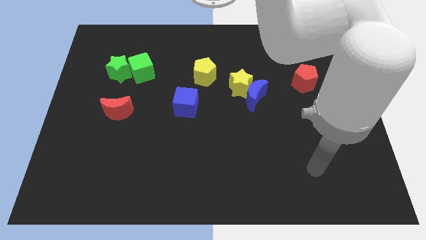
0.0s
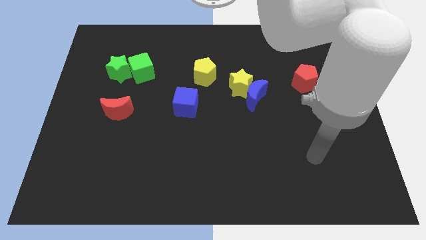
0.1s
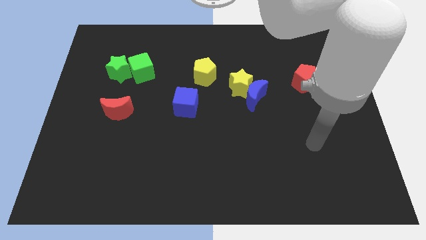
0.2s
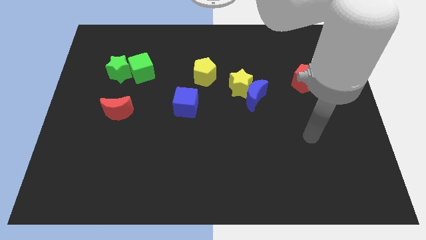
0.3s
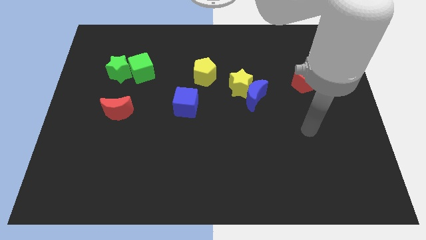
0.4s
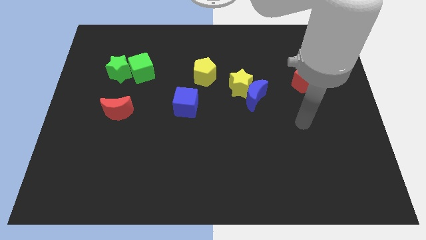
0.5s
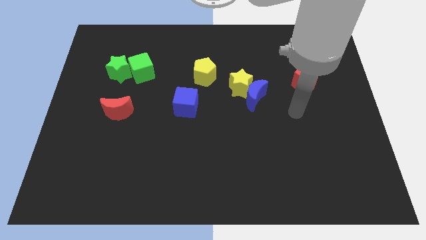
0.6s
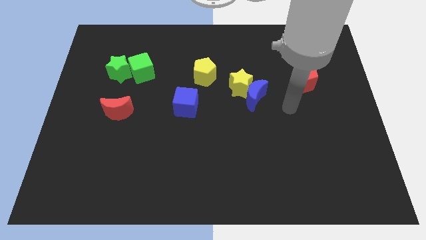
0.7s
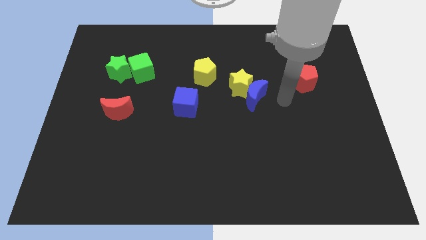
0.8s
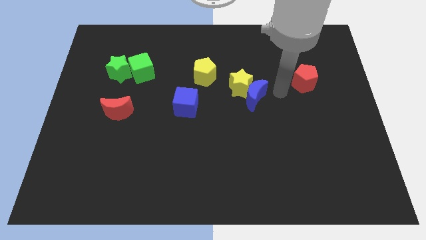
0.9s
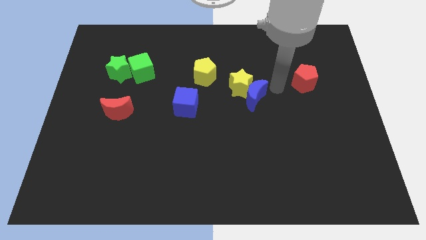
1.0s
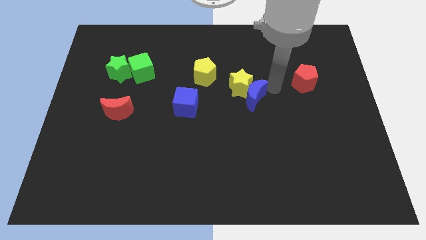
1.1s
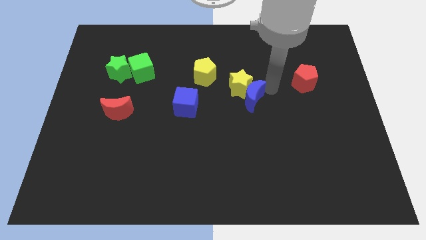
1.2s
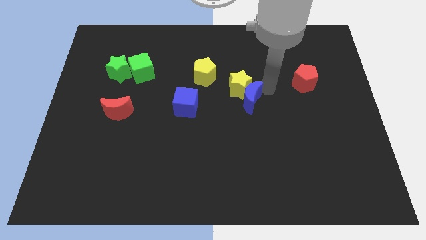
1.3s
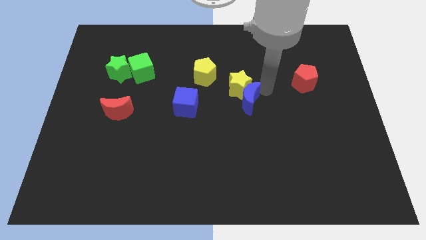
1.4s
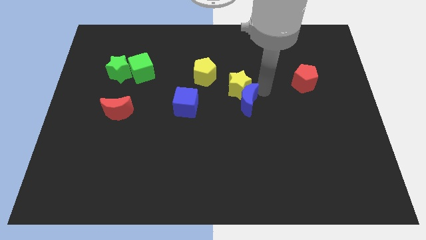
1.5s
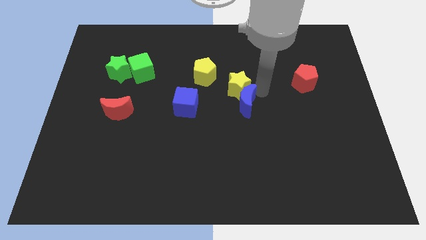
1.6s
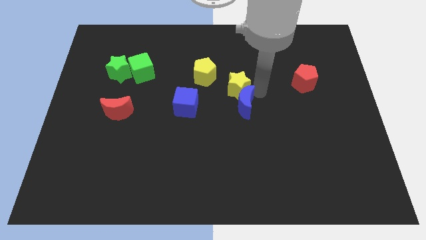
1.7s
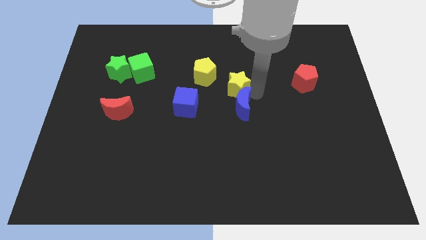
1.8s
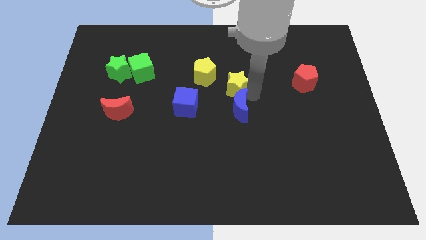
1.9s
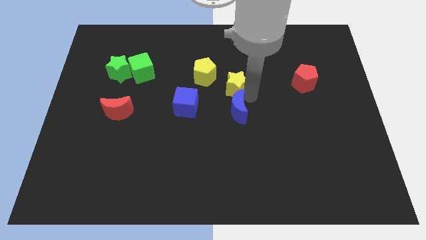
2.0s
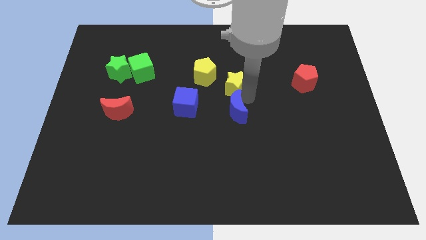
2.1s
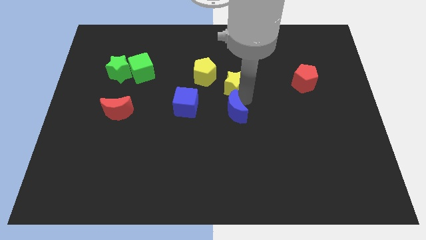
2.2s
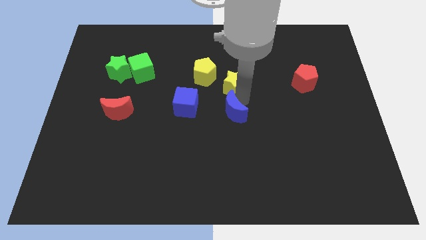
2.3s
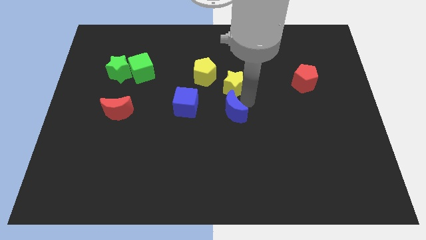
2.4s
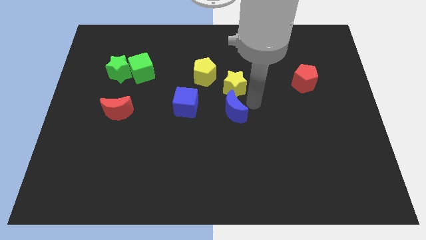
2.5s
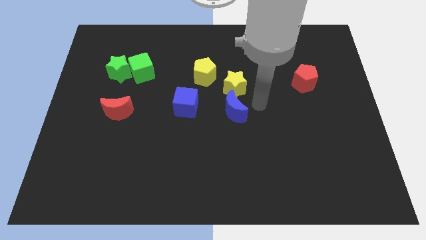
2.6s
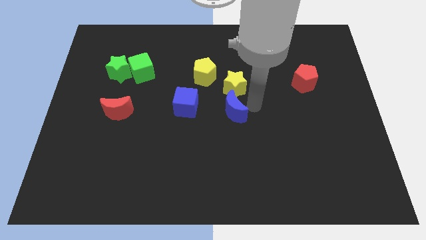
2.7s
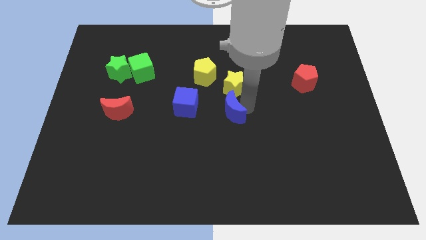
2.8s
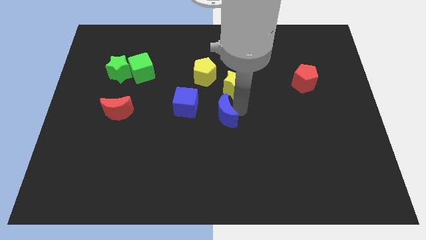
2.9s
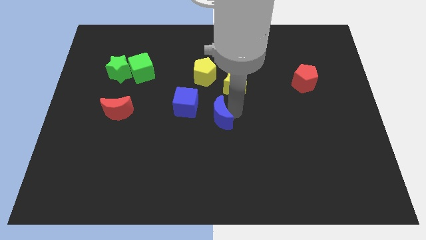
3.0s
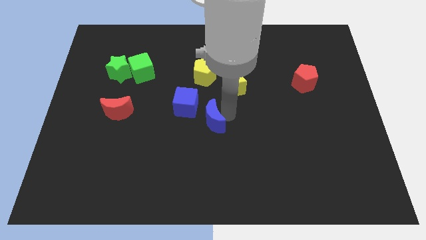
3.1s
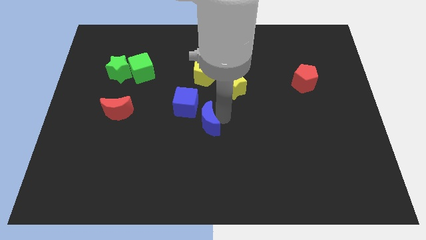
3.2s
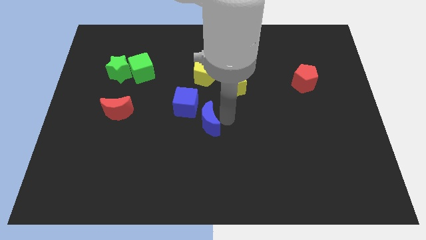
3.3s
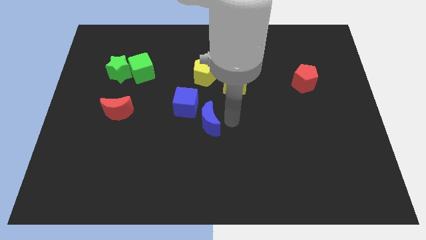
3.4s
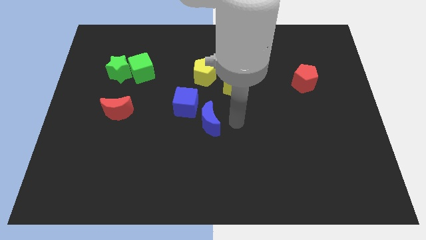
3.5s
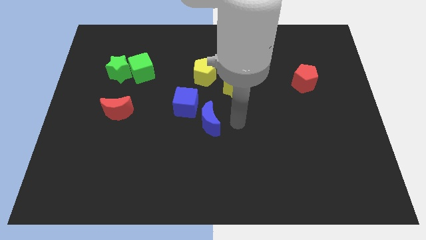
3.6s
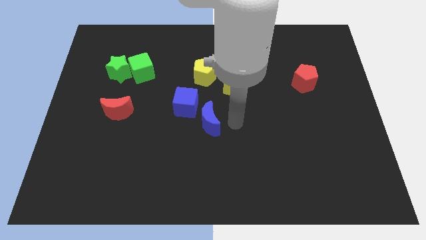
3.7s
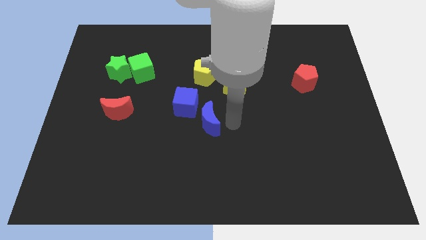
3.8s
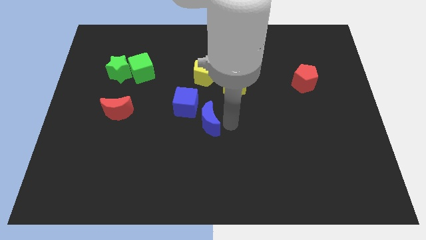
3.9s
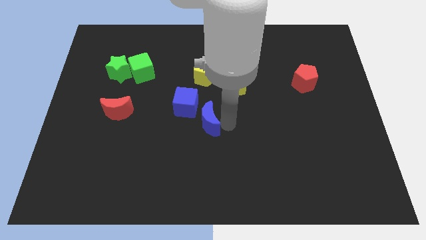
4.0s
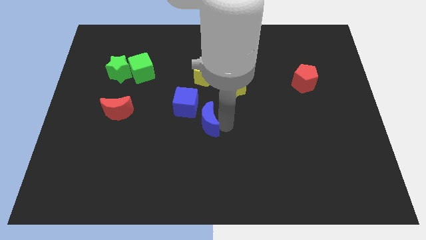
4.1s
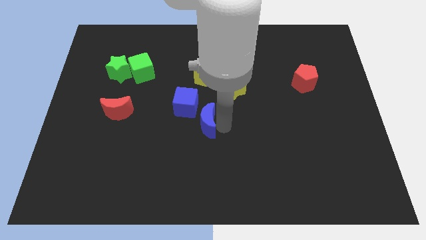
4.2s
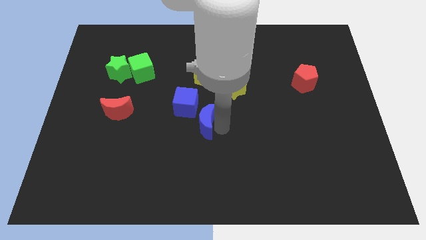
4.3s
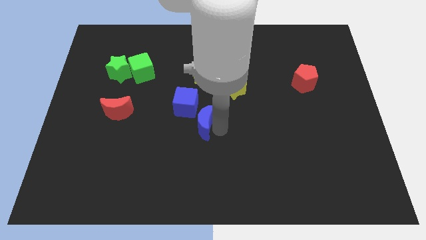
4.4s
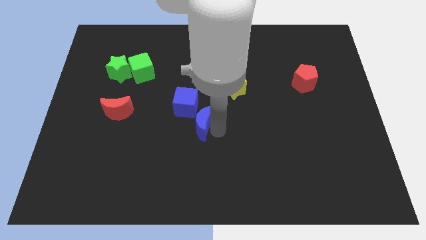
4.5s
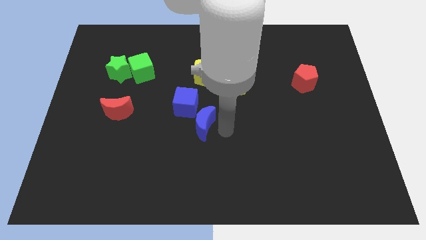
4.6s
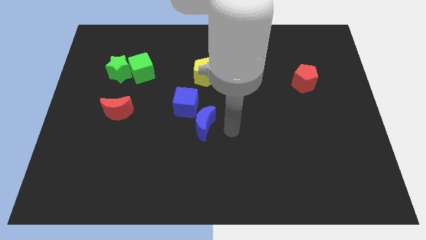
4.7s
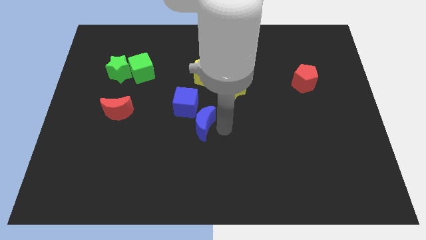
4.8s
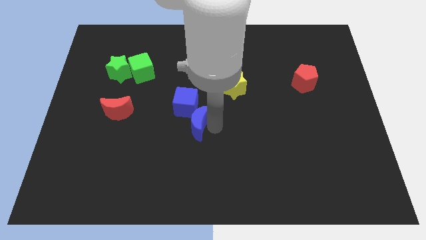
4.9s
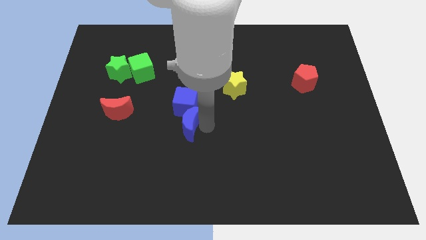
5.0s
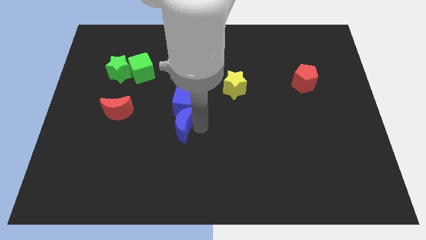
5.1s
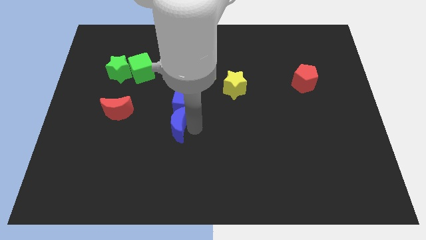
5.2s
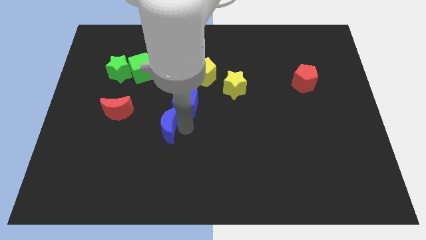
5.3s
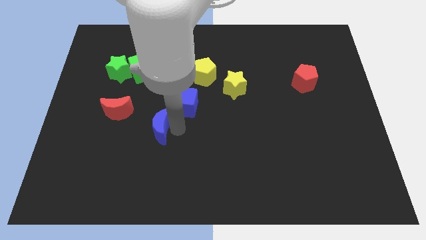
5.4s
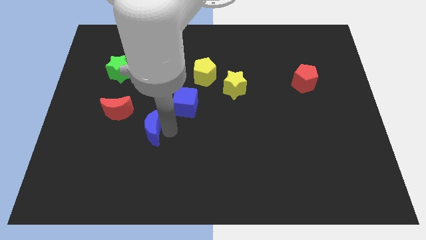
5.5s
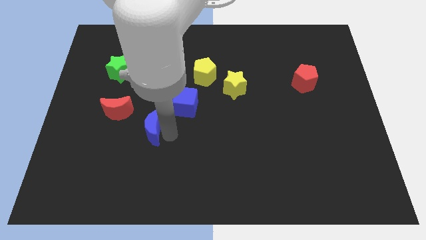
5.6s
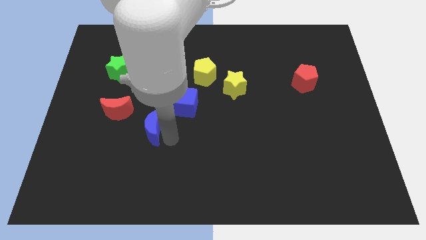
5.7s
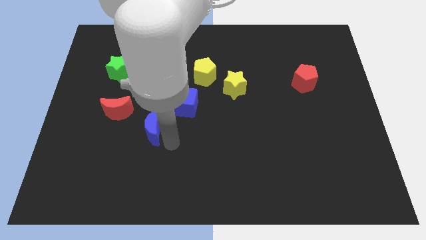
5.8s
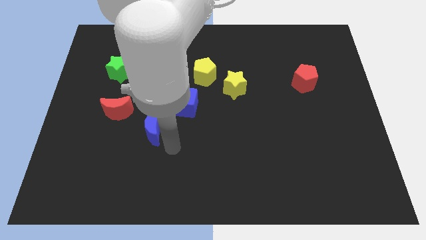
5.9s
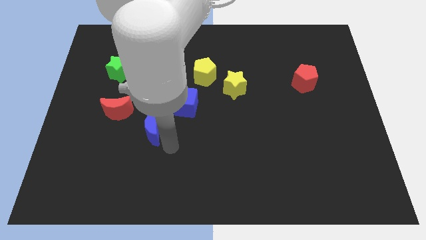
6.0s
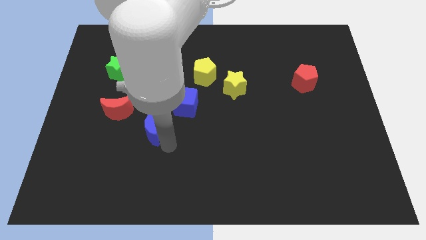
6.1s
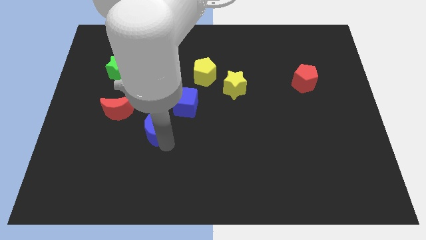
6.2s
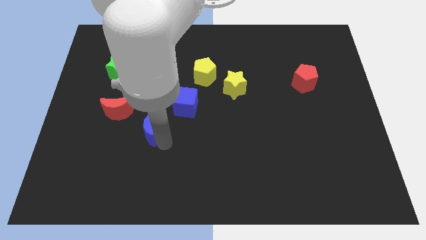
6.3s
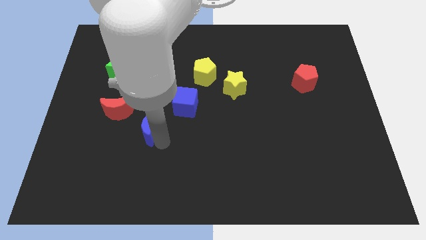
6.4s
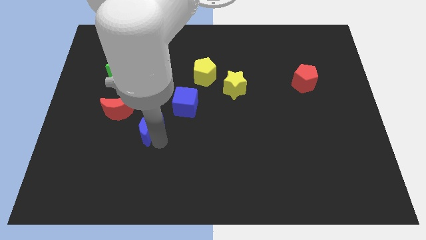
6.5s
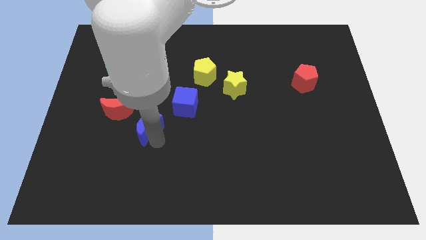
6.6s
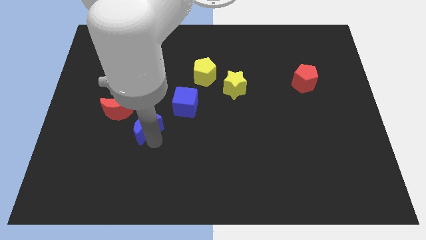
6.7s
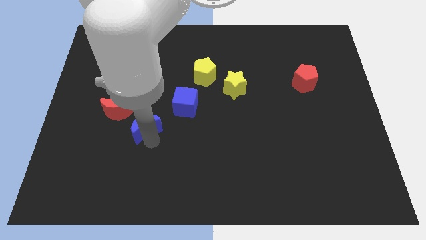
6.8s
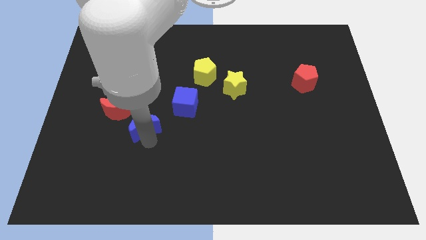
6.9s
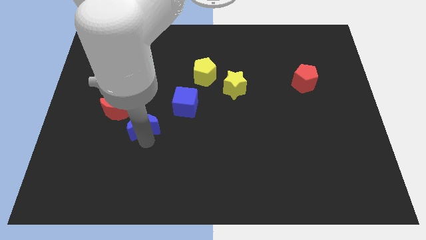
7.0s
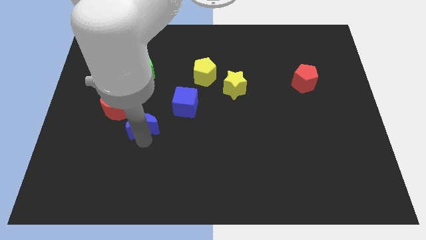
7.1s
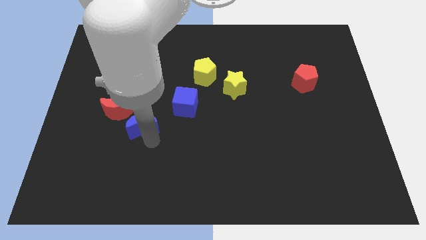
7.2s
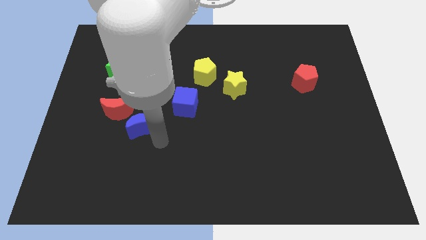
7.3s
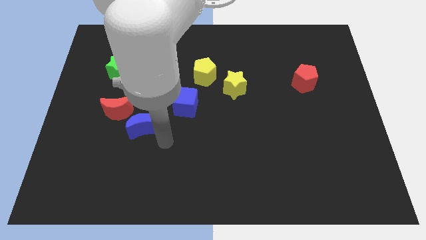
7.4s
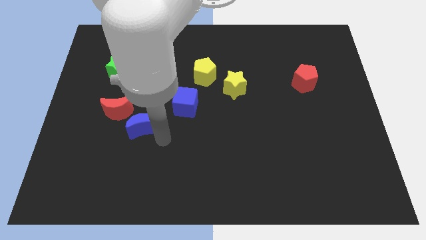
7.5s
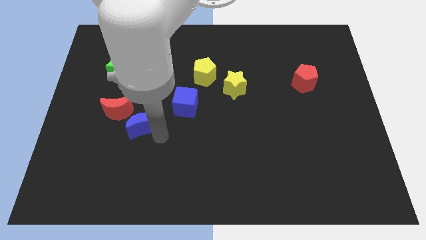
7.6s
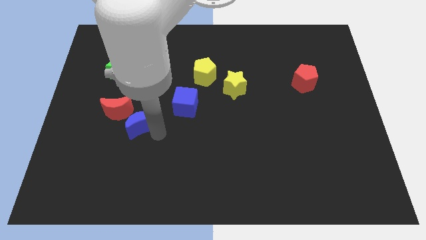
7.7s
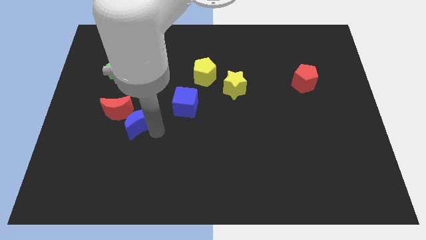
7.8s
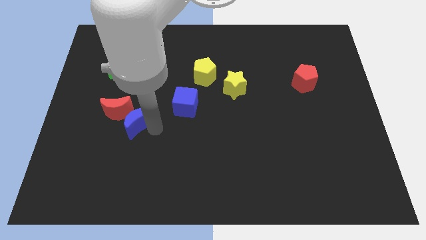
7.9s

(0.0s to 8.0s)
push the blue moon next to the red moon
